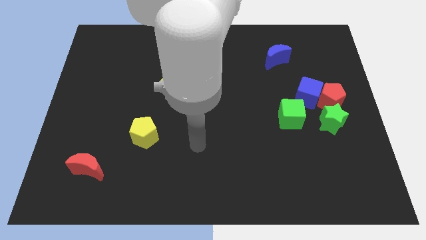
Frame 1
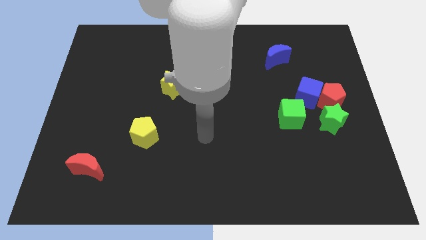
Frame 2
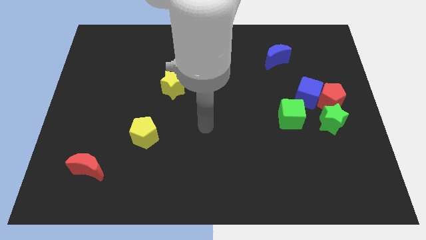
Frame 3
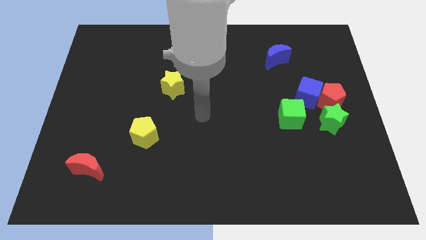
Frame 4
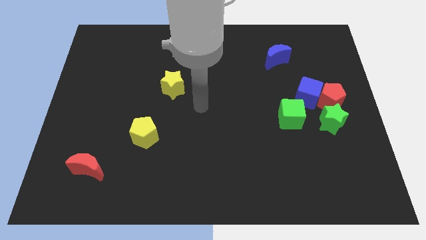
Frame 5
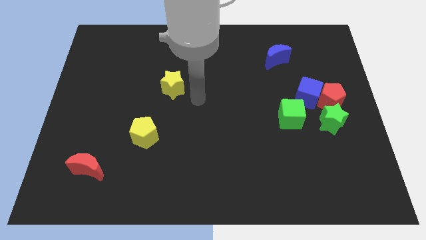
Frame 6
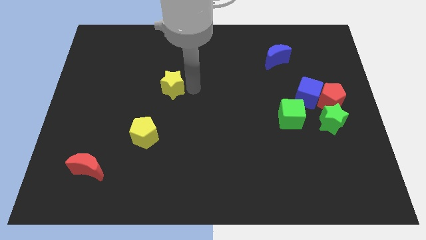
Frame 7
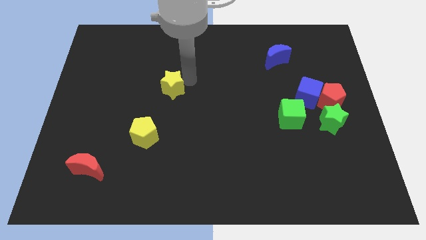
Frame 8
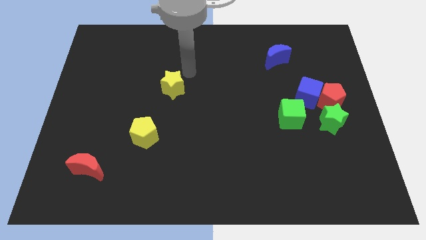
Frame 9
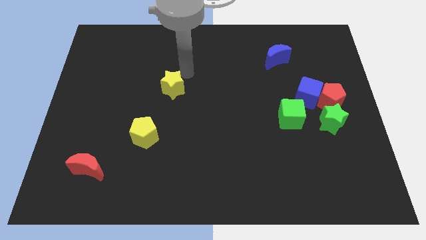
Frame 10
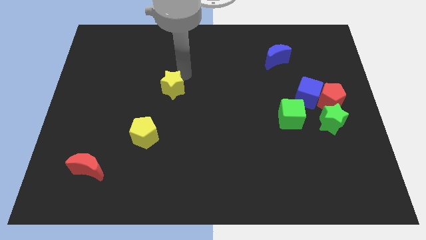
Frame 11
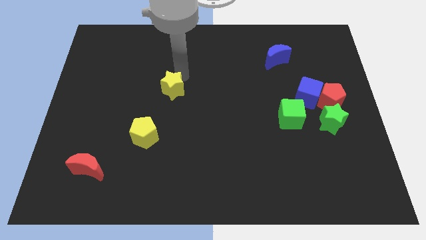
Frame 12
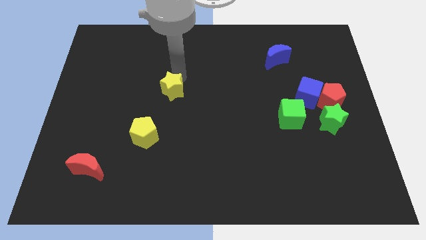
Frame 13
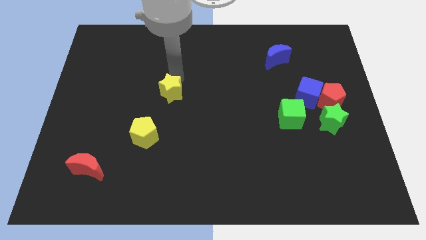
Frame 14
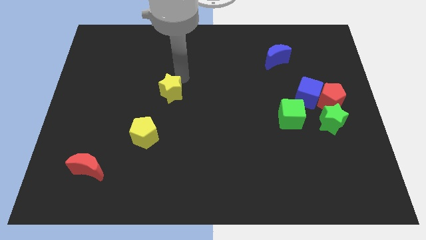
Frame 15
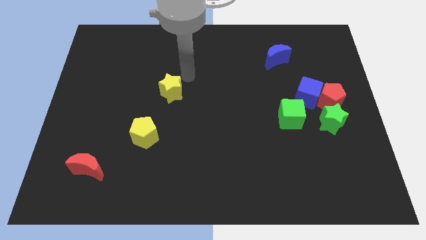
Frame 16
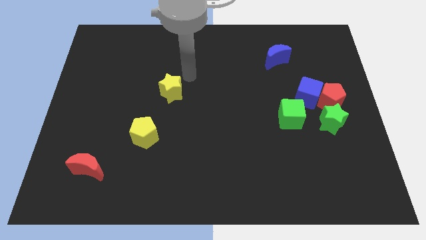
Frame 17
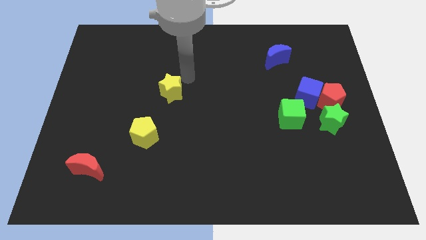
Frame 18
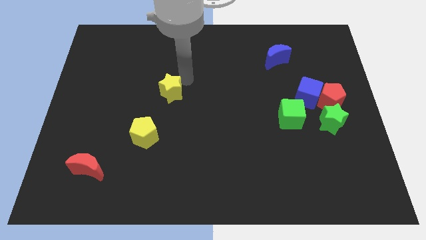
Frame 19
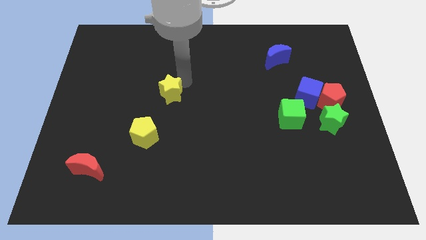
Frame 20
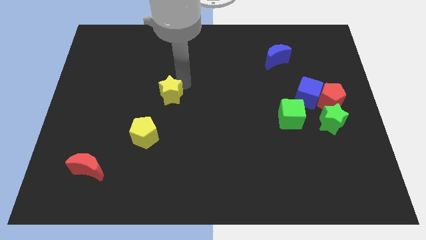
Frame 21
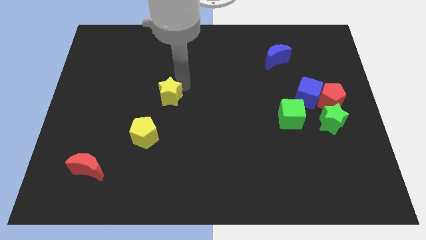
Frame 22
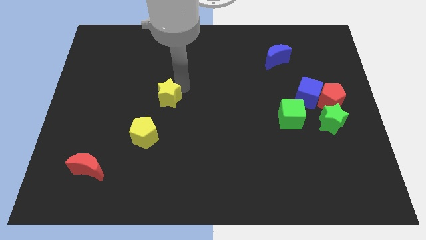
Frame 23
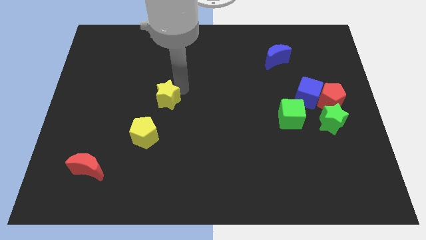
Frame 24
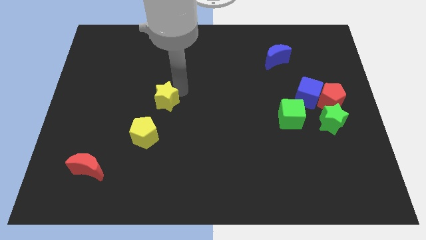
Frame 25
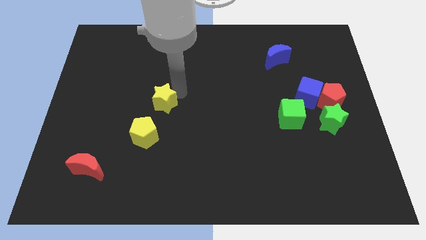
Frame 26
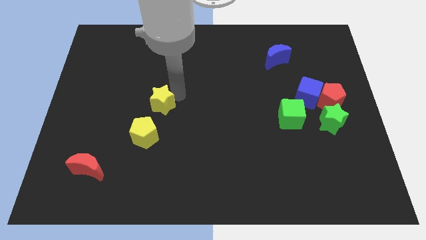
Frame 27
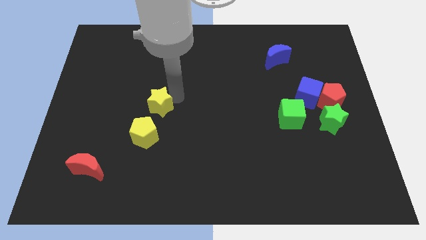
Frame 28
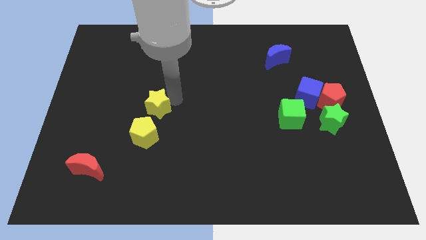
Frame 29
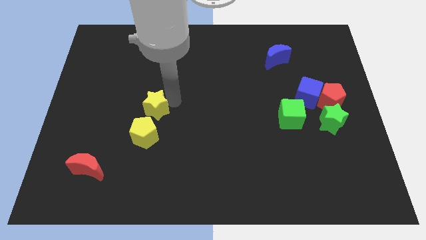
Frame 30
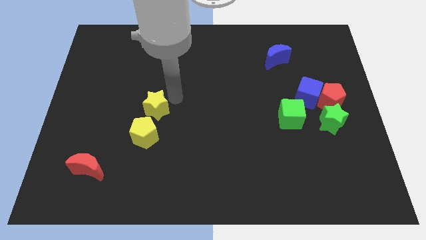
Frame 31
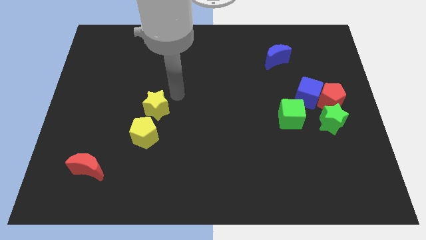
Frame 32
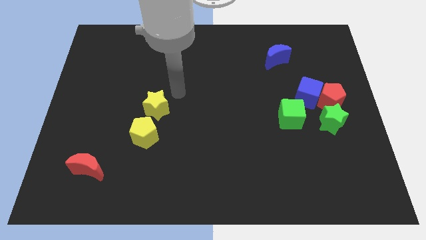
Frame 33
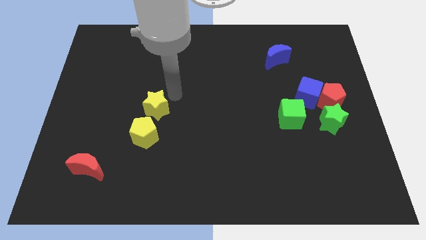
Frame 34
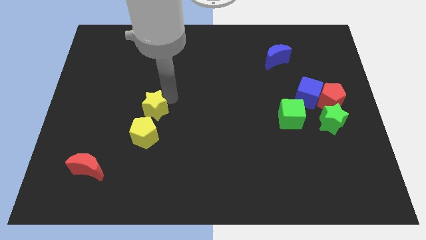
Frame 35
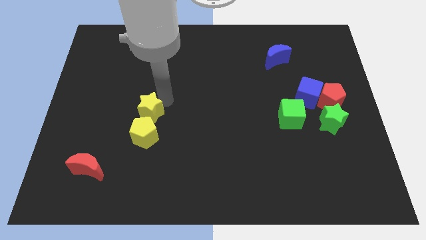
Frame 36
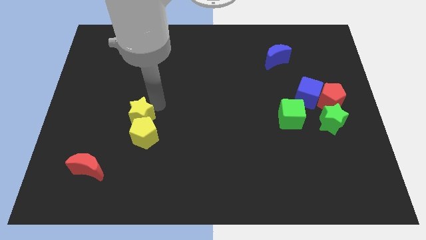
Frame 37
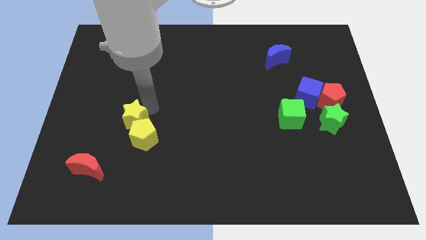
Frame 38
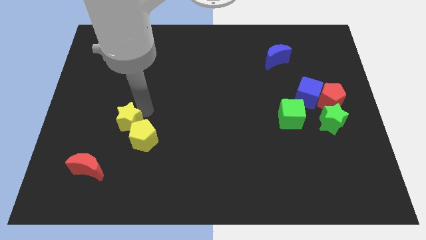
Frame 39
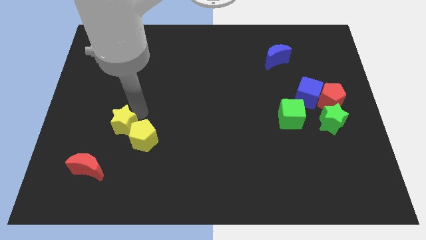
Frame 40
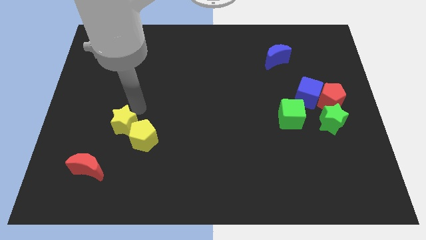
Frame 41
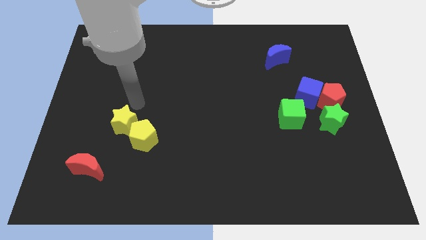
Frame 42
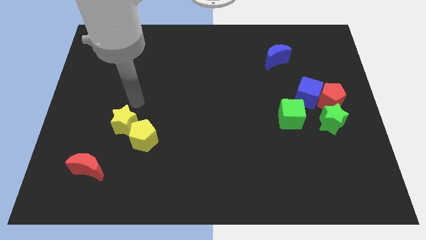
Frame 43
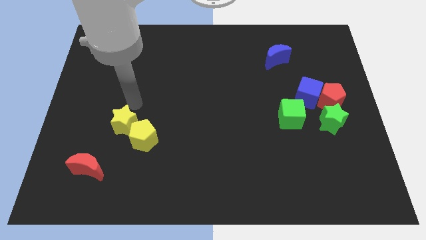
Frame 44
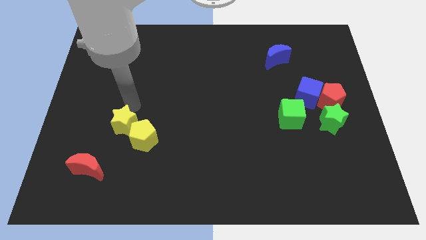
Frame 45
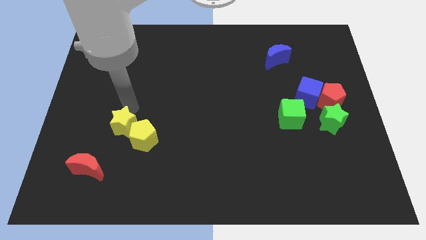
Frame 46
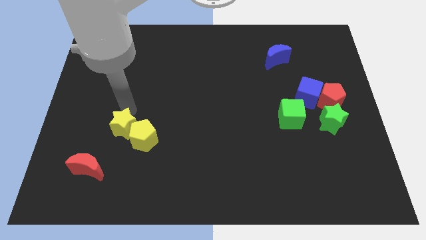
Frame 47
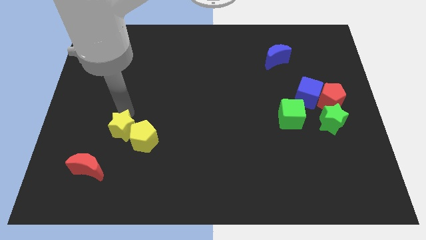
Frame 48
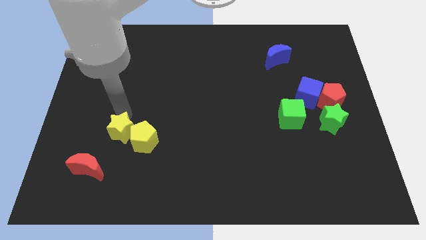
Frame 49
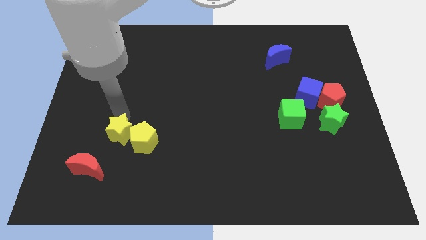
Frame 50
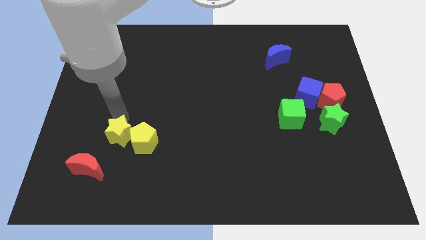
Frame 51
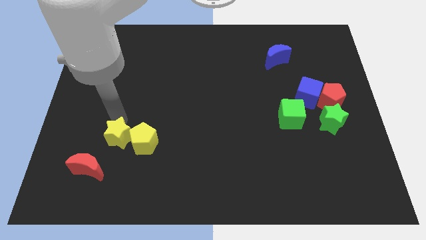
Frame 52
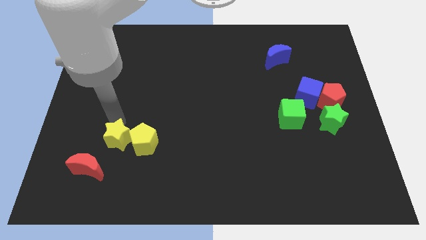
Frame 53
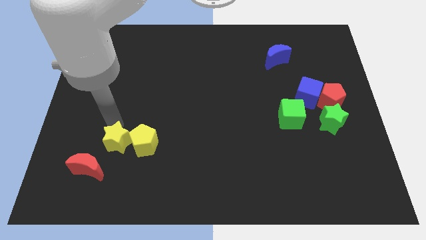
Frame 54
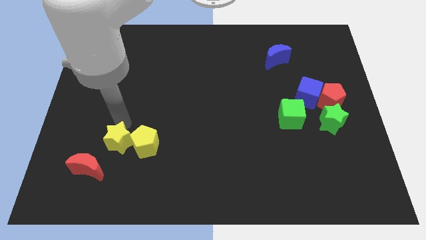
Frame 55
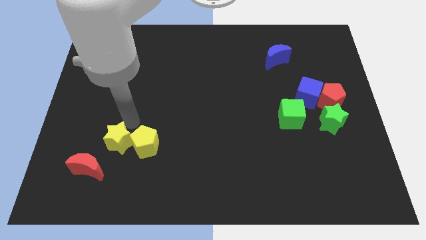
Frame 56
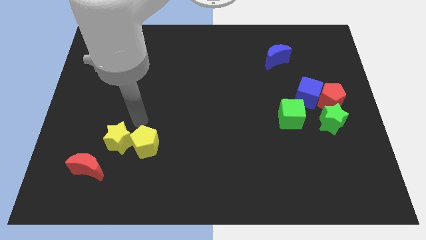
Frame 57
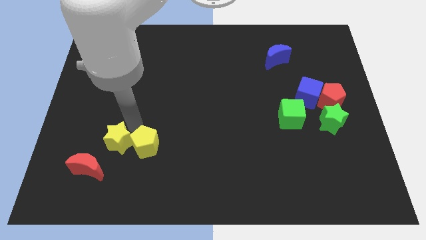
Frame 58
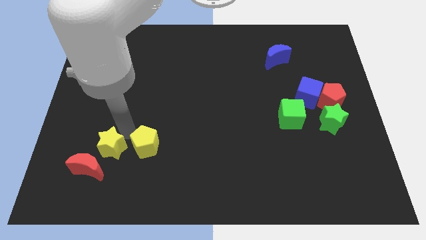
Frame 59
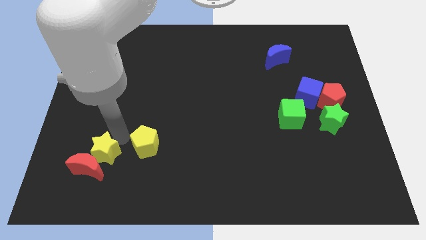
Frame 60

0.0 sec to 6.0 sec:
slide the yellow star to the red moon
